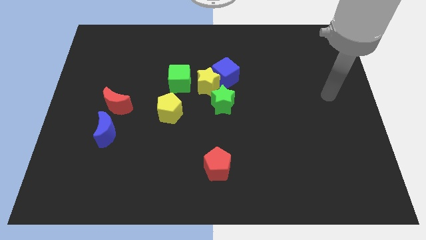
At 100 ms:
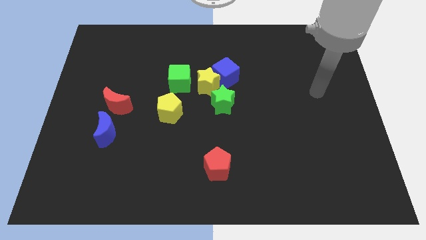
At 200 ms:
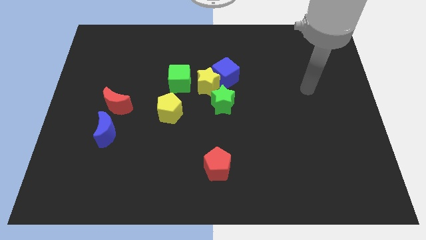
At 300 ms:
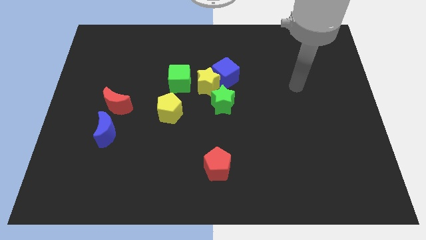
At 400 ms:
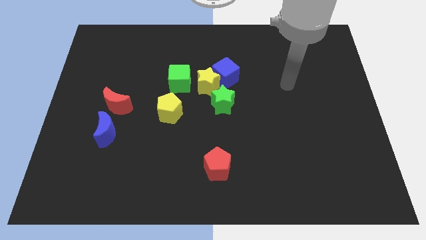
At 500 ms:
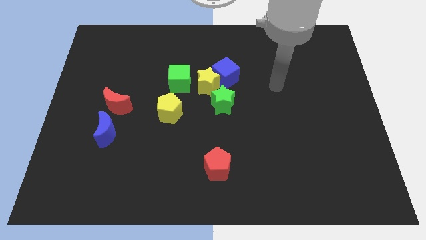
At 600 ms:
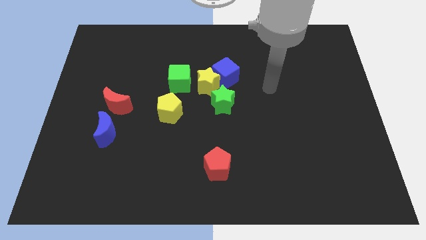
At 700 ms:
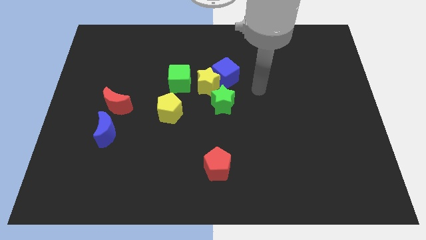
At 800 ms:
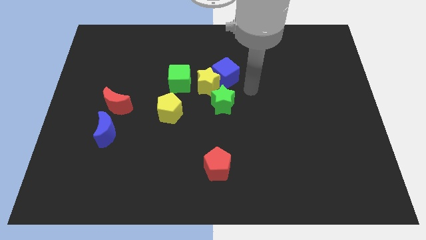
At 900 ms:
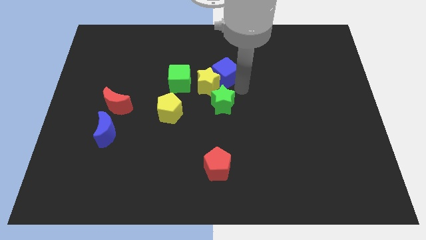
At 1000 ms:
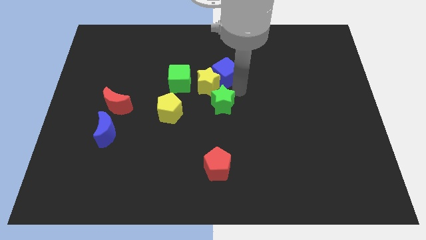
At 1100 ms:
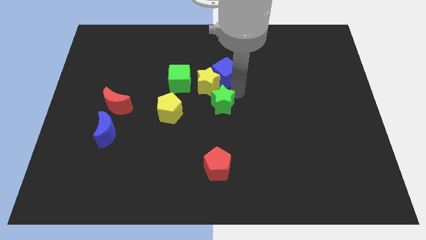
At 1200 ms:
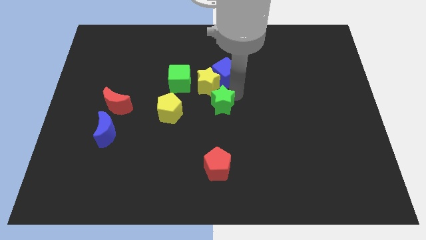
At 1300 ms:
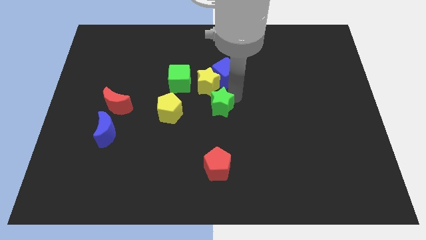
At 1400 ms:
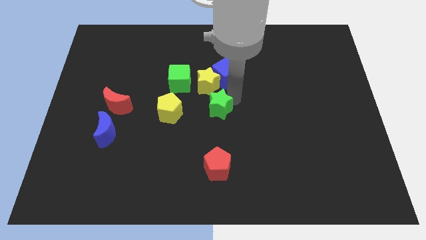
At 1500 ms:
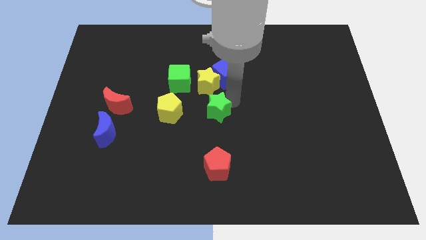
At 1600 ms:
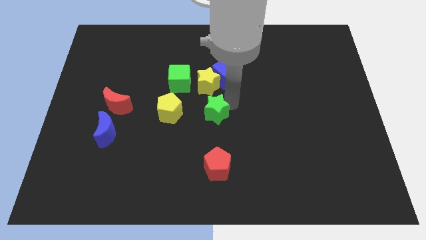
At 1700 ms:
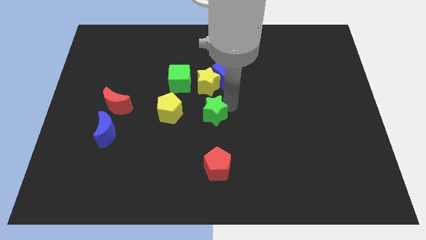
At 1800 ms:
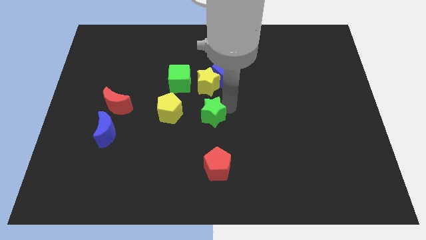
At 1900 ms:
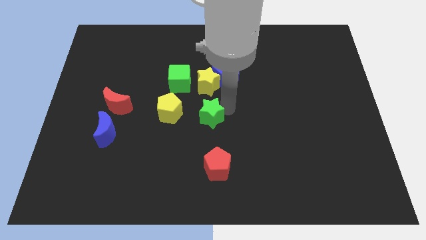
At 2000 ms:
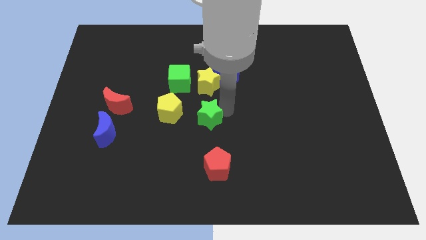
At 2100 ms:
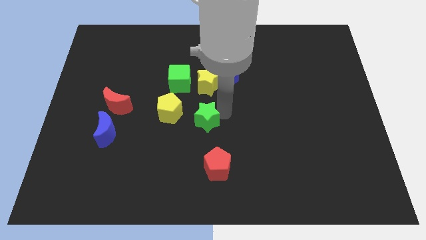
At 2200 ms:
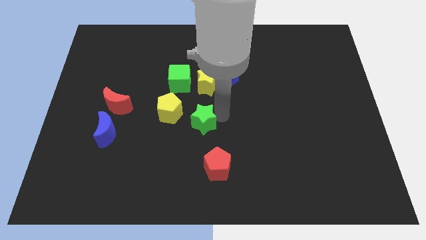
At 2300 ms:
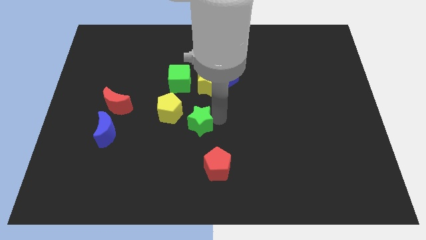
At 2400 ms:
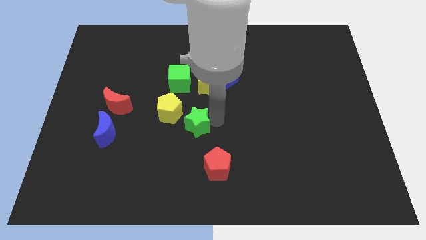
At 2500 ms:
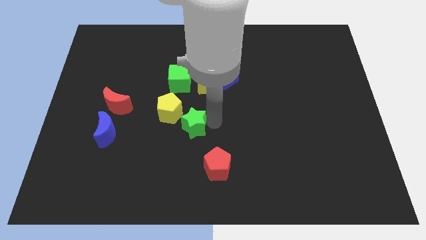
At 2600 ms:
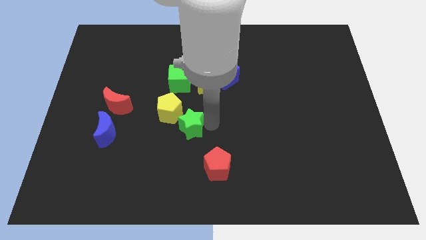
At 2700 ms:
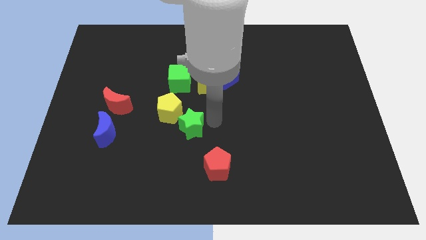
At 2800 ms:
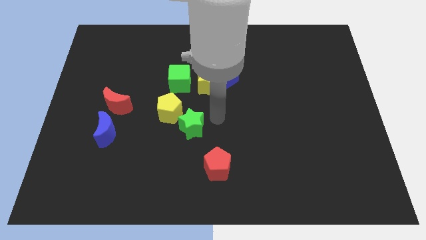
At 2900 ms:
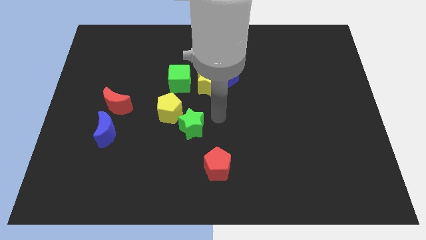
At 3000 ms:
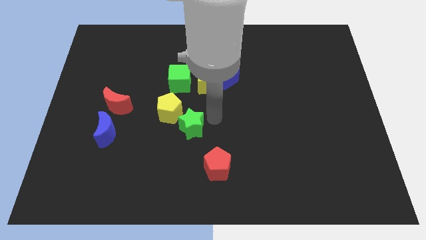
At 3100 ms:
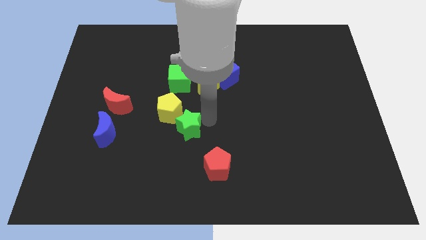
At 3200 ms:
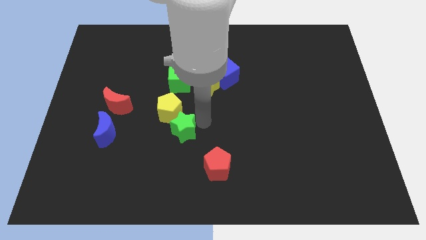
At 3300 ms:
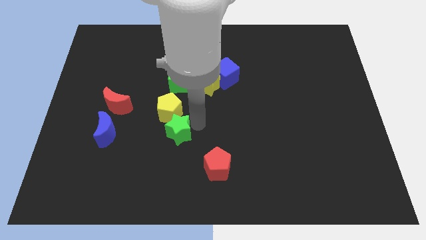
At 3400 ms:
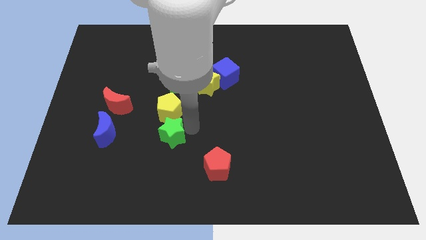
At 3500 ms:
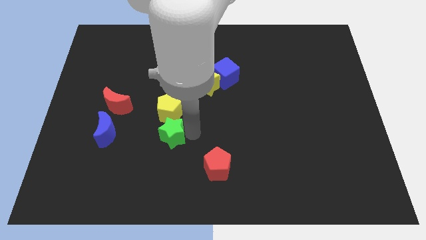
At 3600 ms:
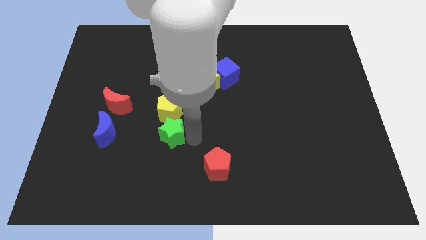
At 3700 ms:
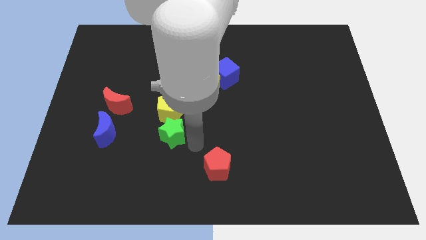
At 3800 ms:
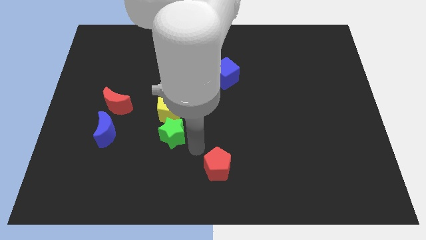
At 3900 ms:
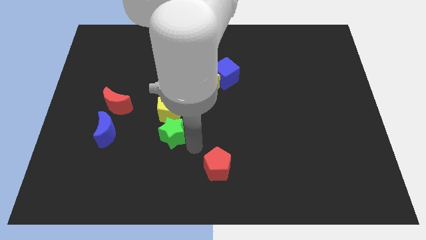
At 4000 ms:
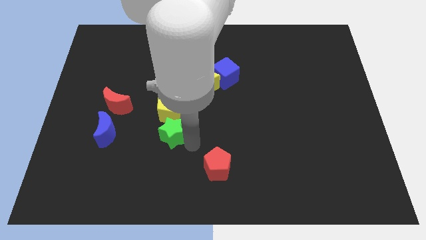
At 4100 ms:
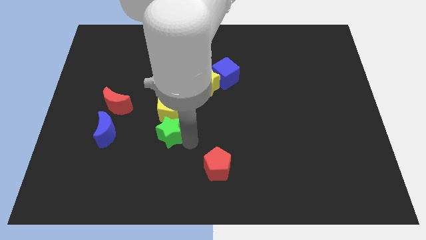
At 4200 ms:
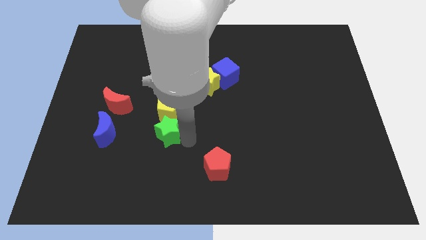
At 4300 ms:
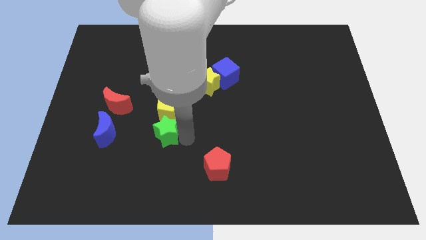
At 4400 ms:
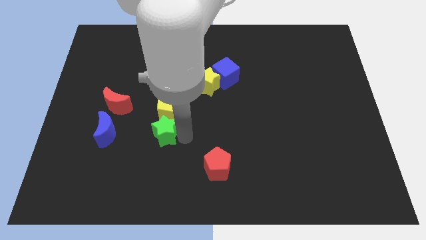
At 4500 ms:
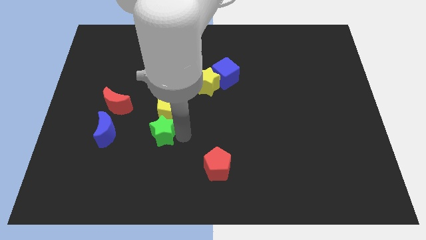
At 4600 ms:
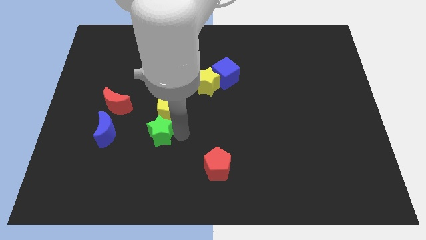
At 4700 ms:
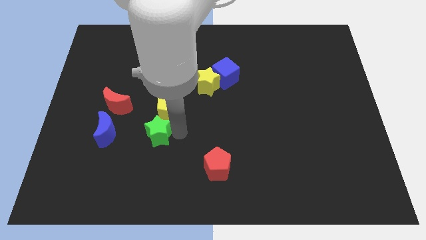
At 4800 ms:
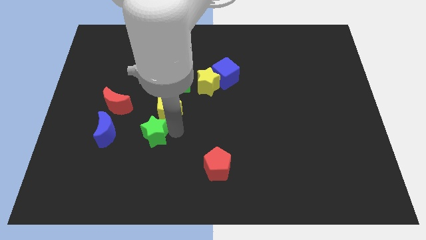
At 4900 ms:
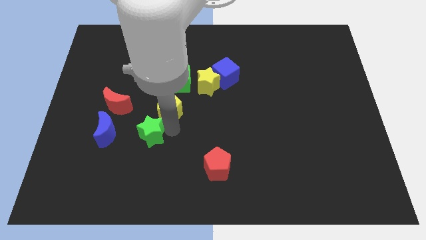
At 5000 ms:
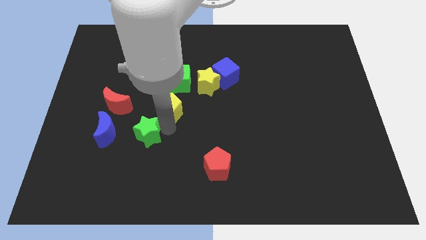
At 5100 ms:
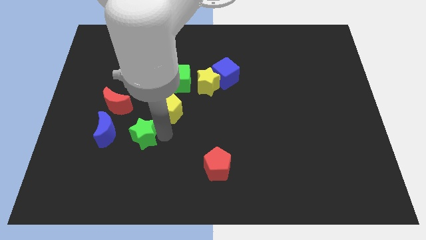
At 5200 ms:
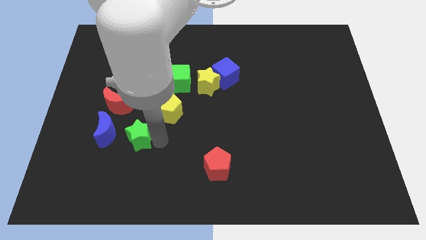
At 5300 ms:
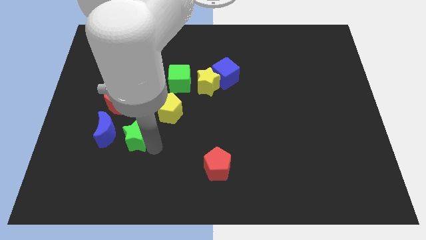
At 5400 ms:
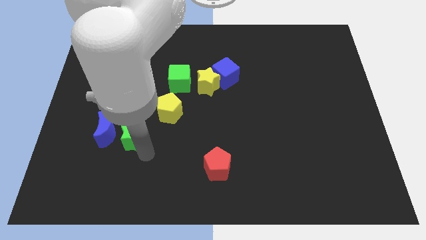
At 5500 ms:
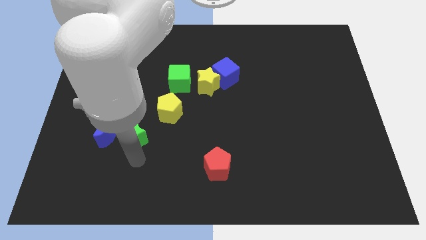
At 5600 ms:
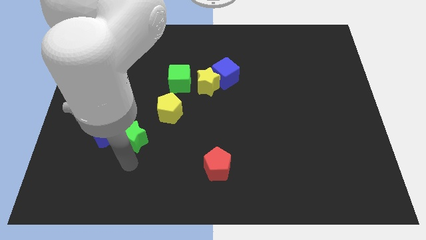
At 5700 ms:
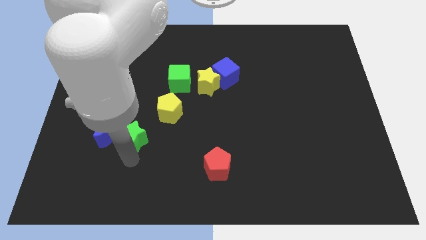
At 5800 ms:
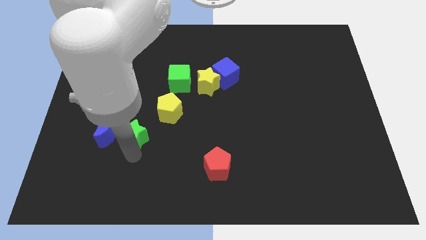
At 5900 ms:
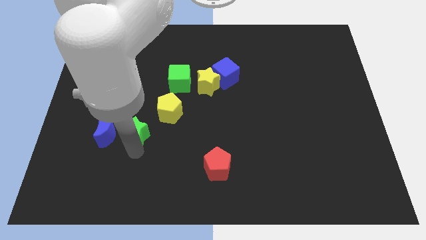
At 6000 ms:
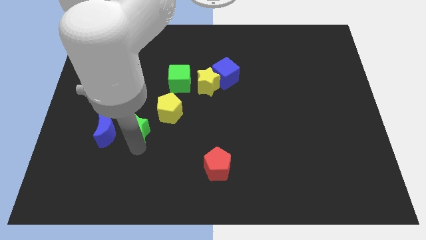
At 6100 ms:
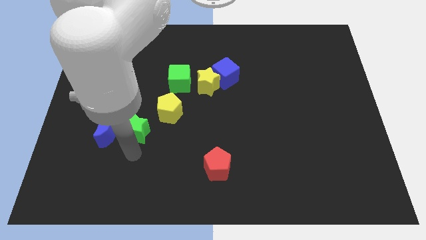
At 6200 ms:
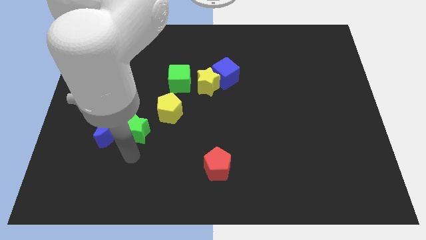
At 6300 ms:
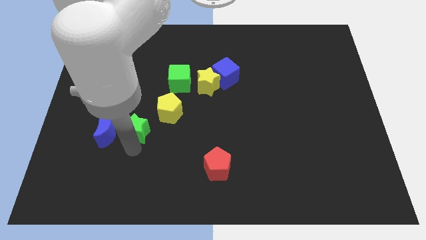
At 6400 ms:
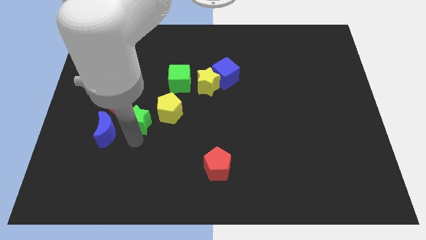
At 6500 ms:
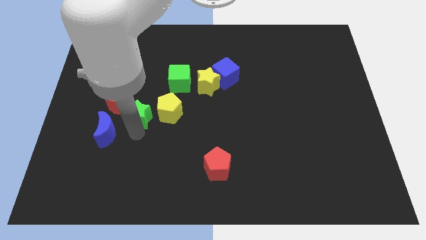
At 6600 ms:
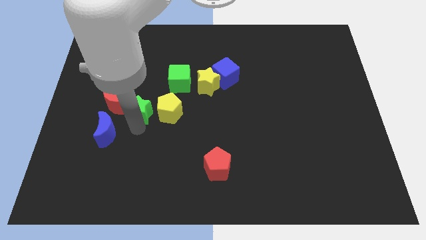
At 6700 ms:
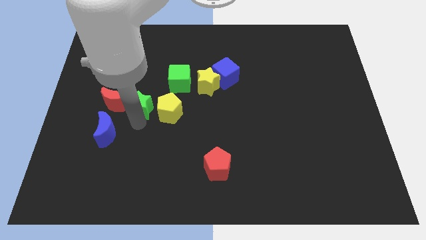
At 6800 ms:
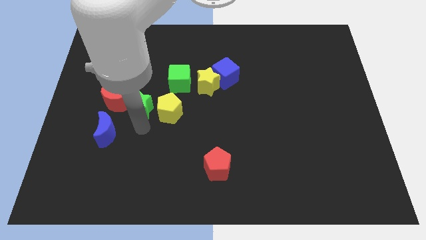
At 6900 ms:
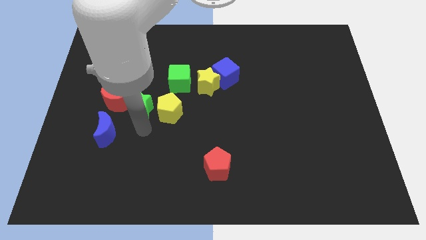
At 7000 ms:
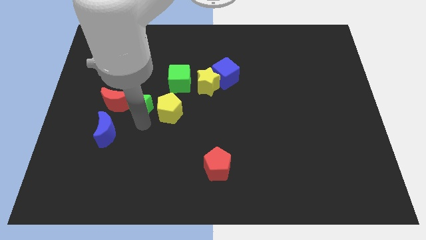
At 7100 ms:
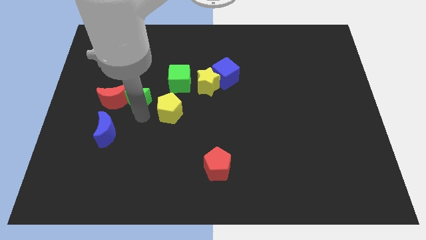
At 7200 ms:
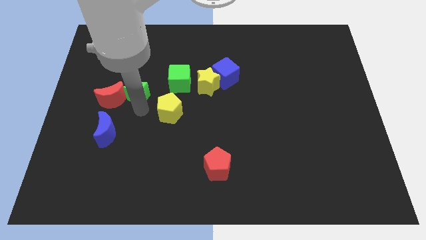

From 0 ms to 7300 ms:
move the green star left of the green cube

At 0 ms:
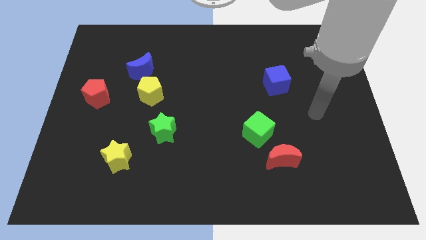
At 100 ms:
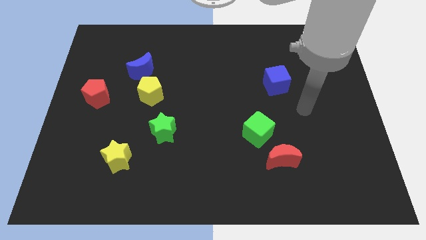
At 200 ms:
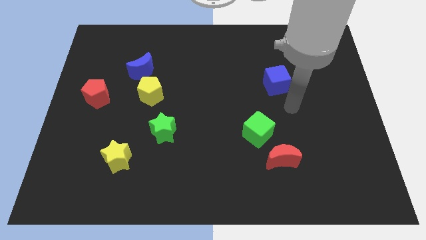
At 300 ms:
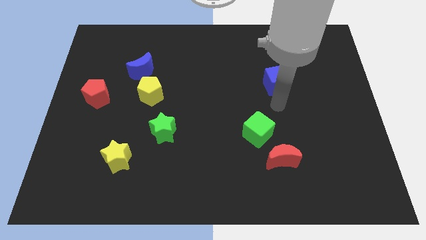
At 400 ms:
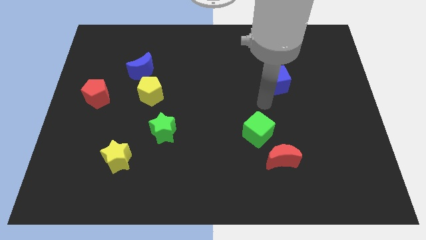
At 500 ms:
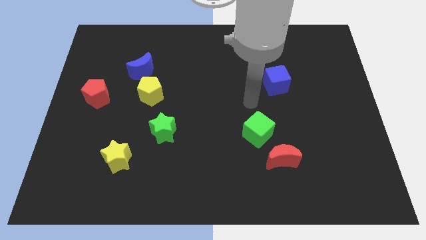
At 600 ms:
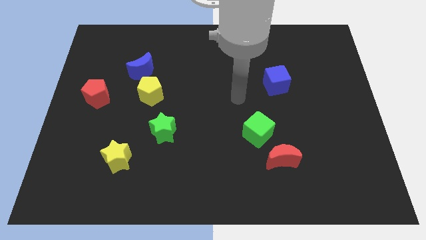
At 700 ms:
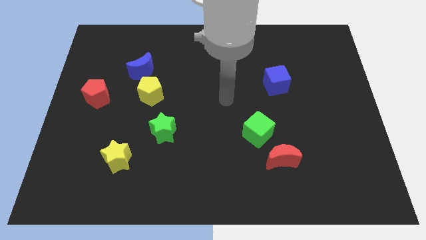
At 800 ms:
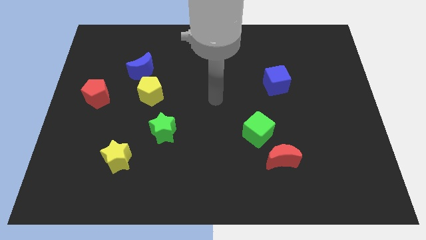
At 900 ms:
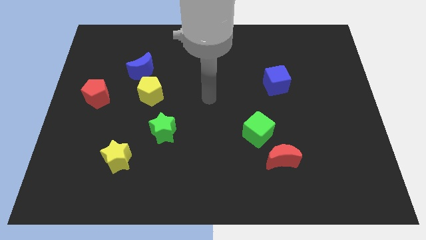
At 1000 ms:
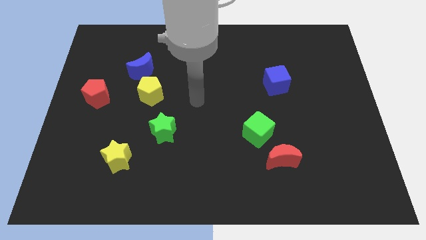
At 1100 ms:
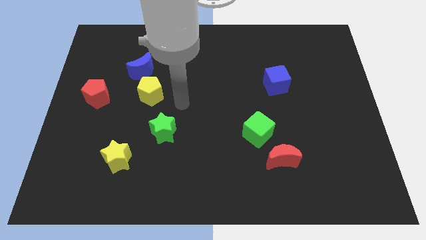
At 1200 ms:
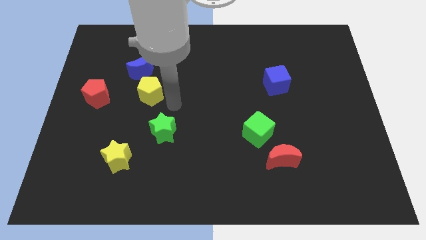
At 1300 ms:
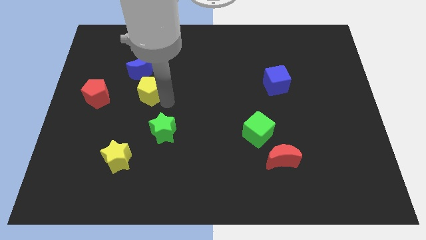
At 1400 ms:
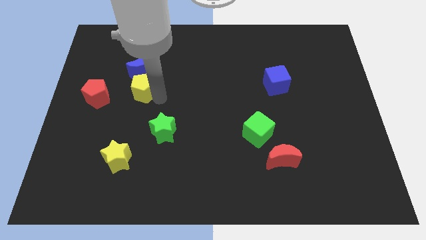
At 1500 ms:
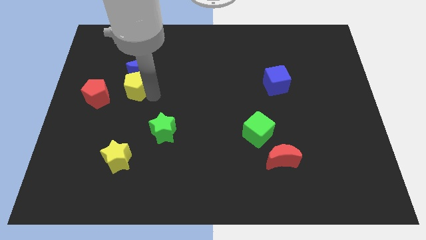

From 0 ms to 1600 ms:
push the yellow pentagon to the top right side of the red pentagon

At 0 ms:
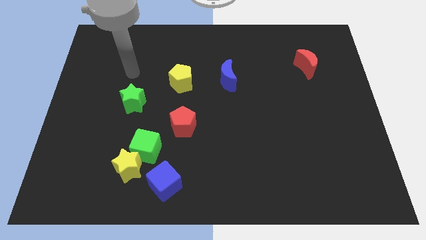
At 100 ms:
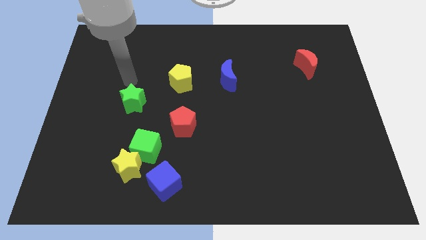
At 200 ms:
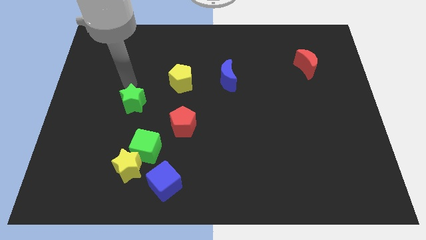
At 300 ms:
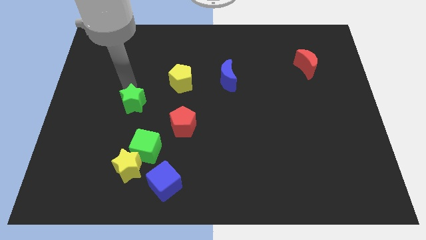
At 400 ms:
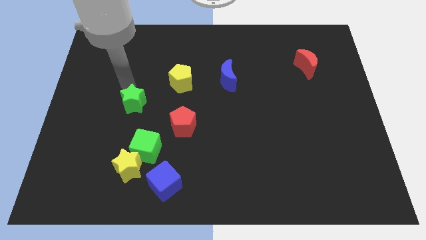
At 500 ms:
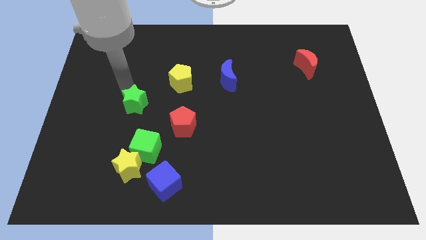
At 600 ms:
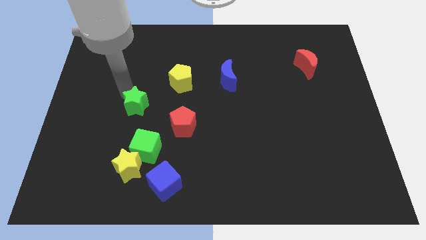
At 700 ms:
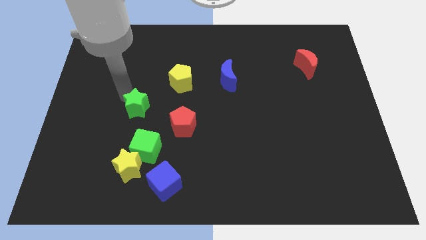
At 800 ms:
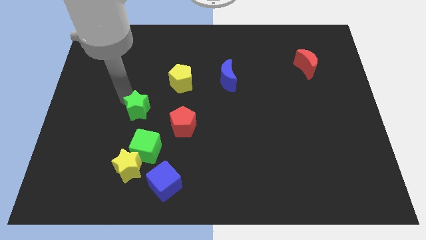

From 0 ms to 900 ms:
put the green star left of the red pentagon
